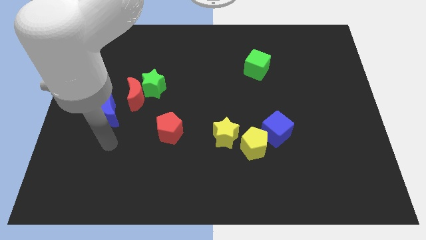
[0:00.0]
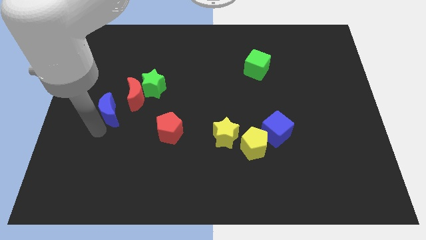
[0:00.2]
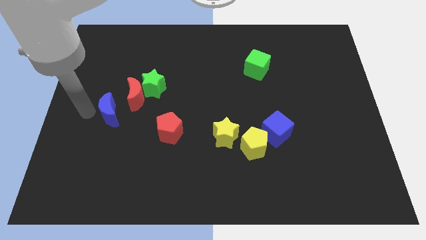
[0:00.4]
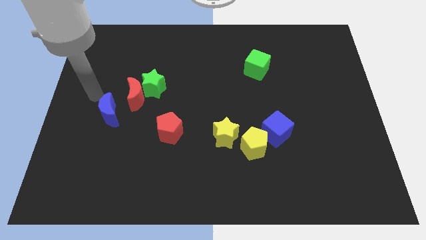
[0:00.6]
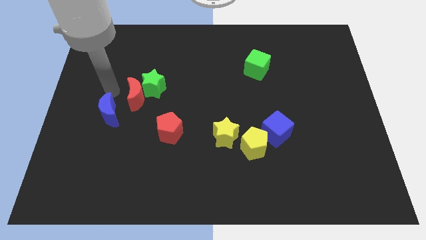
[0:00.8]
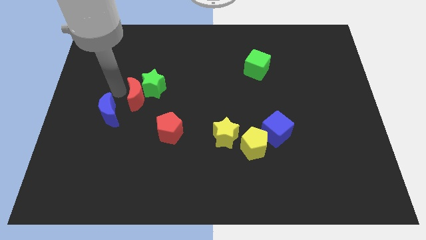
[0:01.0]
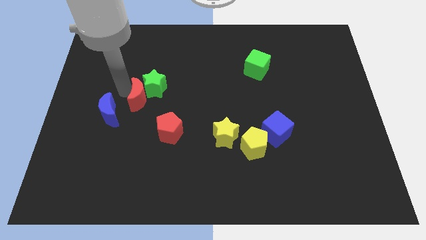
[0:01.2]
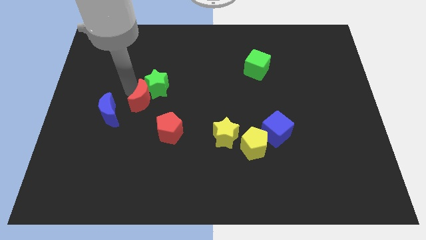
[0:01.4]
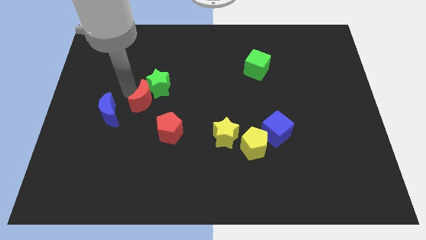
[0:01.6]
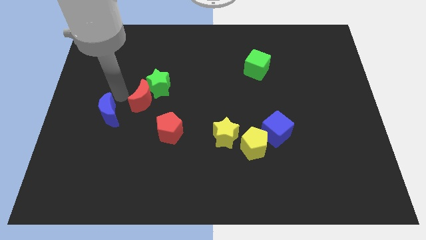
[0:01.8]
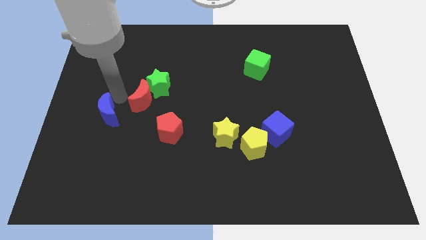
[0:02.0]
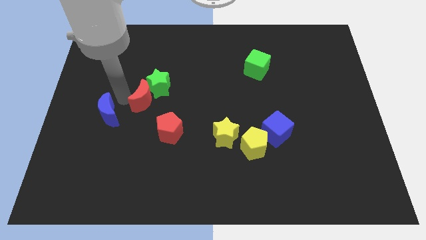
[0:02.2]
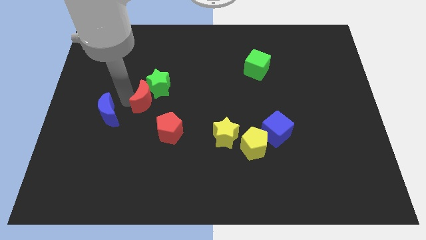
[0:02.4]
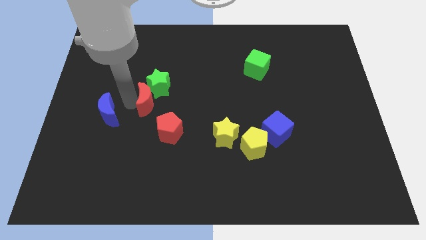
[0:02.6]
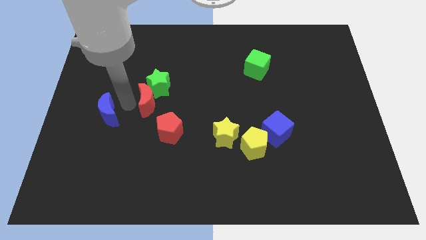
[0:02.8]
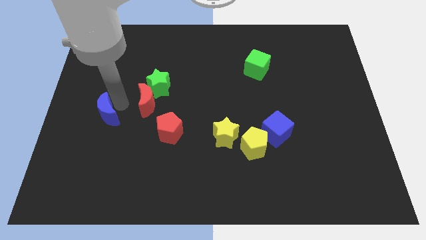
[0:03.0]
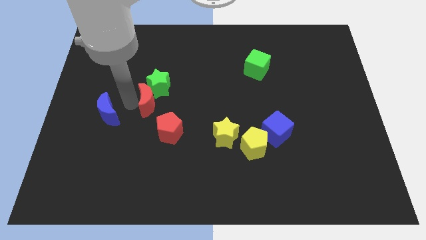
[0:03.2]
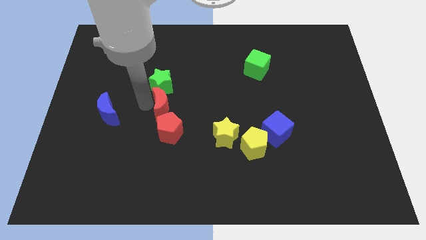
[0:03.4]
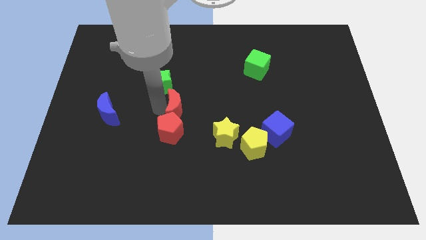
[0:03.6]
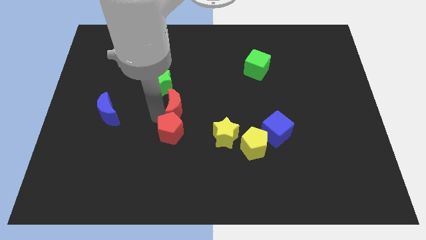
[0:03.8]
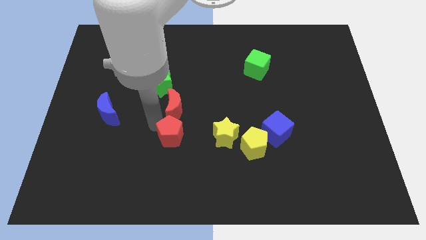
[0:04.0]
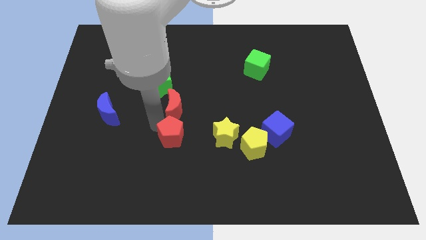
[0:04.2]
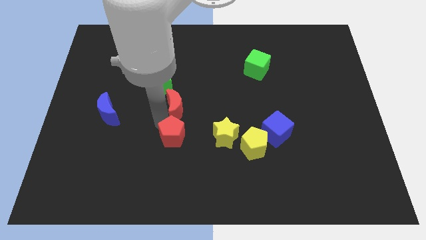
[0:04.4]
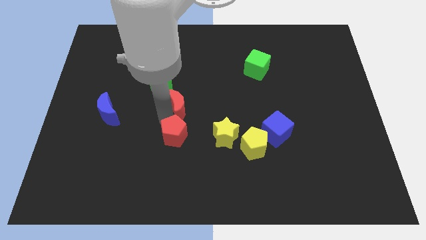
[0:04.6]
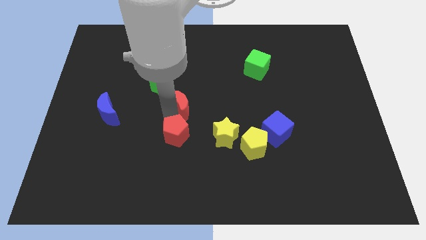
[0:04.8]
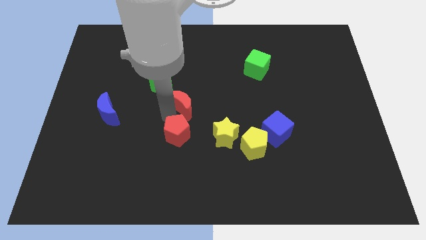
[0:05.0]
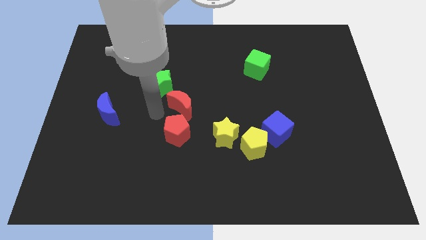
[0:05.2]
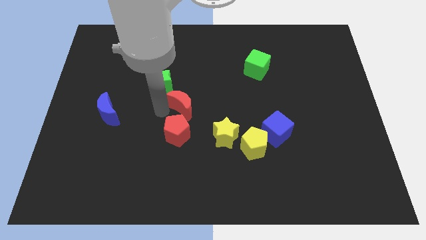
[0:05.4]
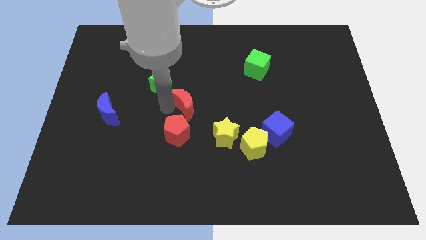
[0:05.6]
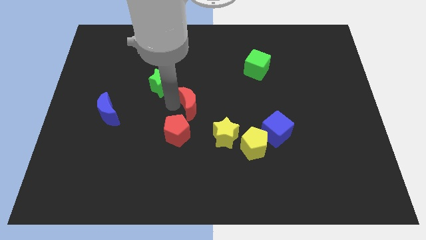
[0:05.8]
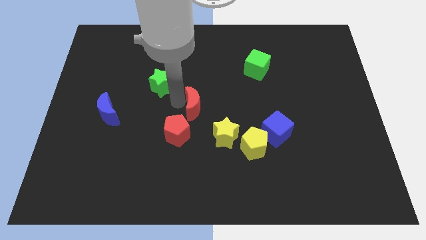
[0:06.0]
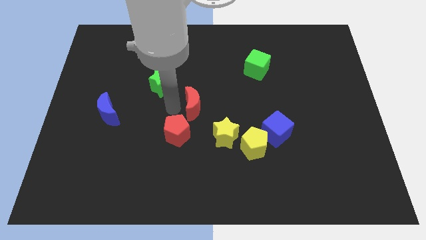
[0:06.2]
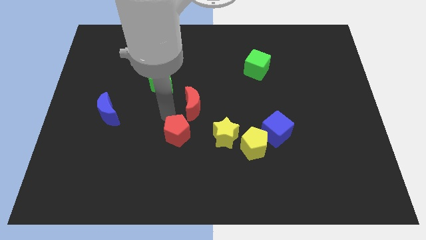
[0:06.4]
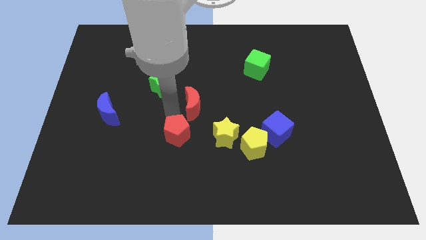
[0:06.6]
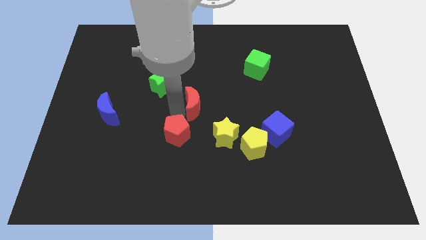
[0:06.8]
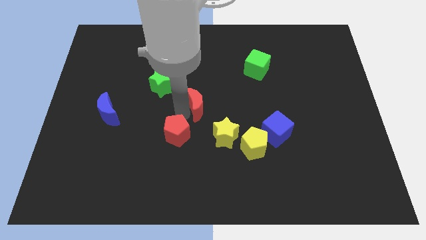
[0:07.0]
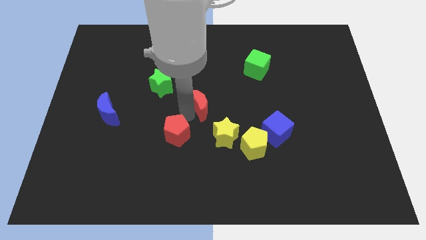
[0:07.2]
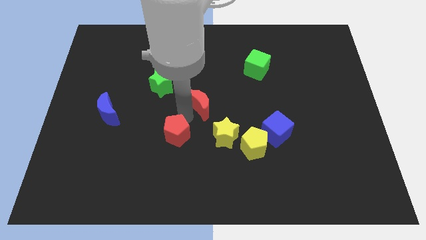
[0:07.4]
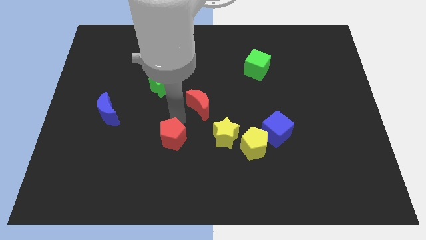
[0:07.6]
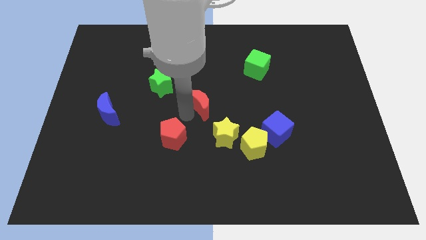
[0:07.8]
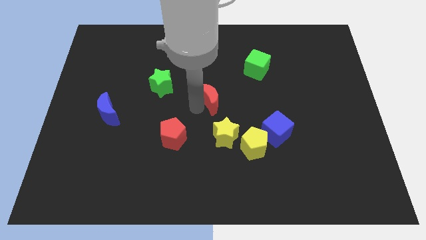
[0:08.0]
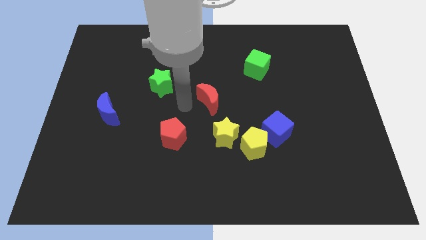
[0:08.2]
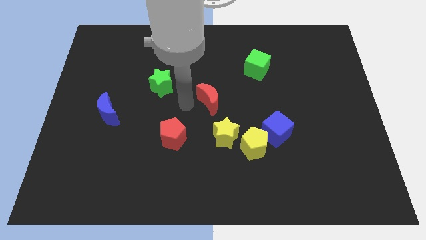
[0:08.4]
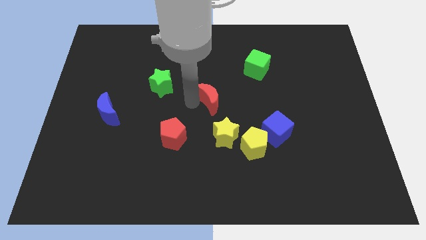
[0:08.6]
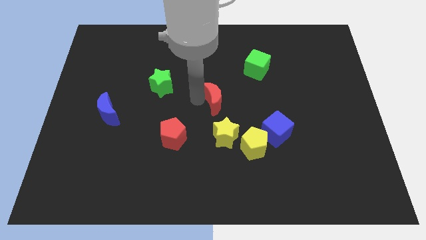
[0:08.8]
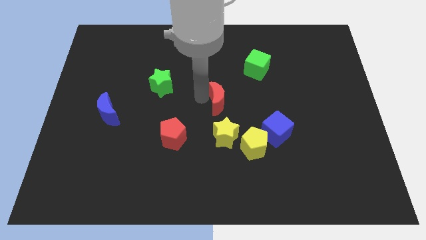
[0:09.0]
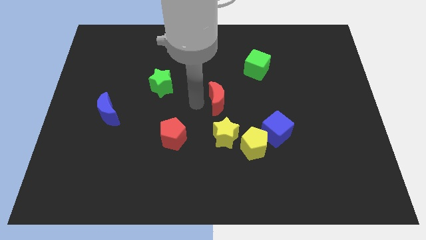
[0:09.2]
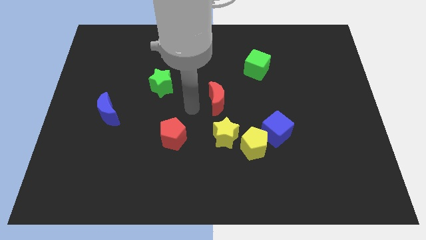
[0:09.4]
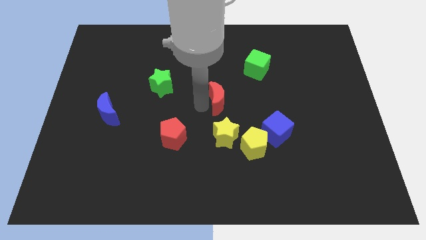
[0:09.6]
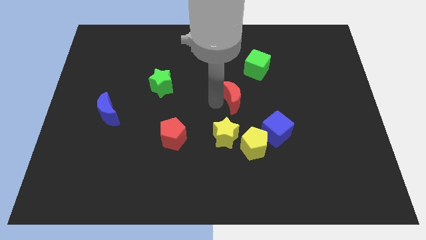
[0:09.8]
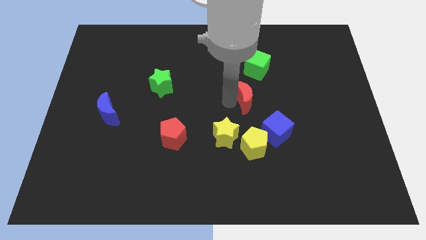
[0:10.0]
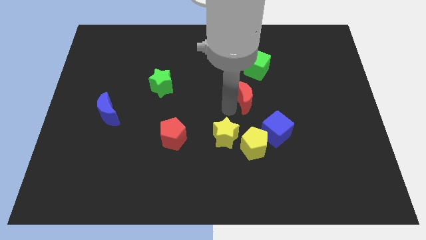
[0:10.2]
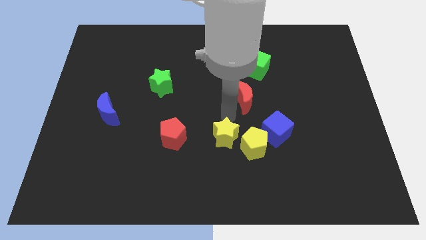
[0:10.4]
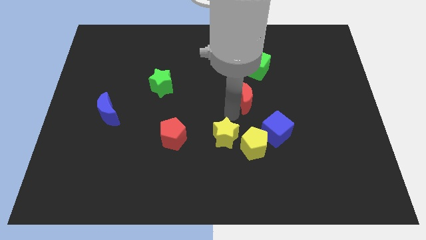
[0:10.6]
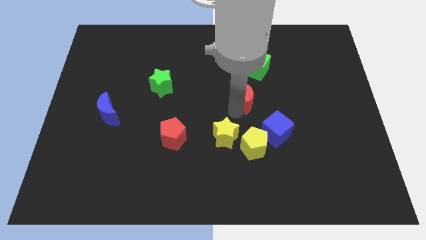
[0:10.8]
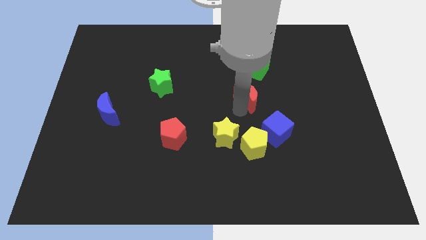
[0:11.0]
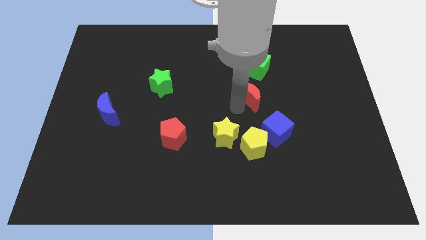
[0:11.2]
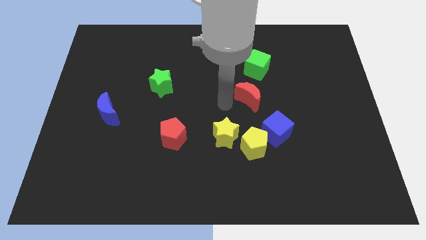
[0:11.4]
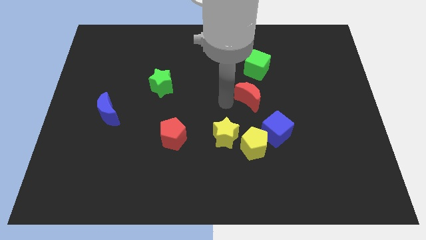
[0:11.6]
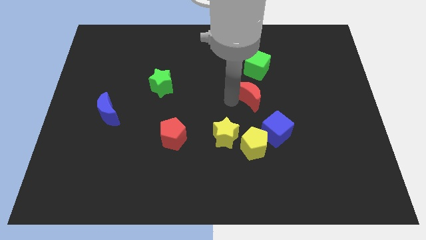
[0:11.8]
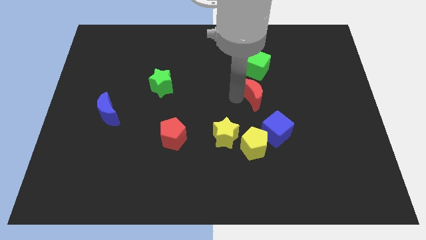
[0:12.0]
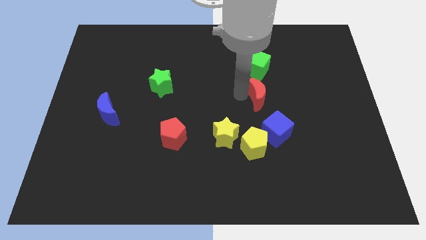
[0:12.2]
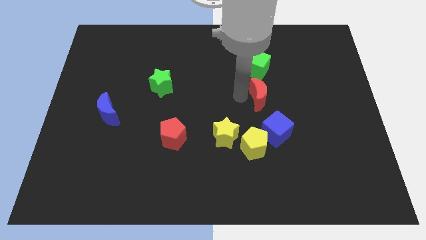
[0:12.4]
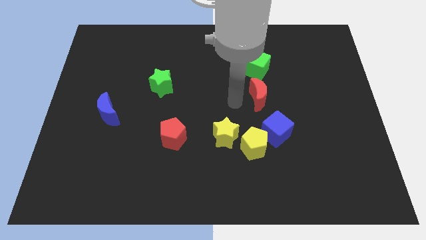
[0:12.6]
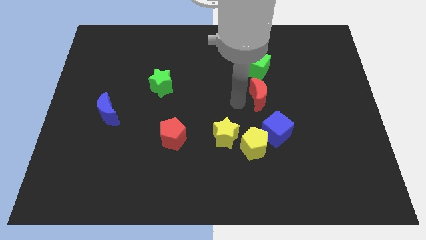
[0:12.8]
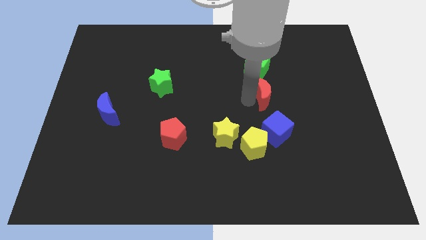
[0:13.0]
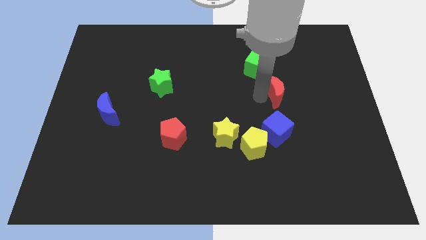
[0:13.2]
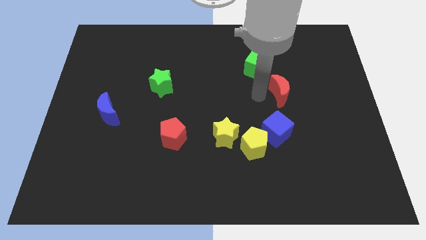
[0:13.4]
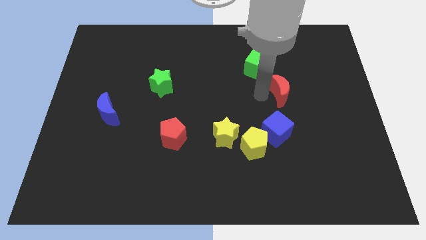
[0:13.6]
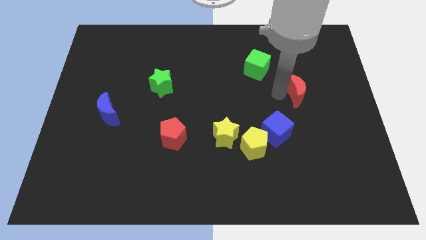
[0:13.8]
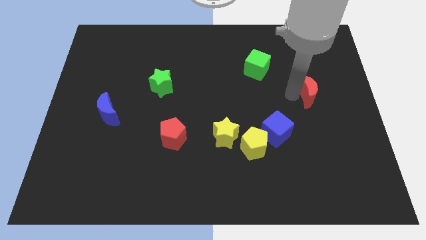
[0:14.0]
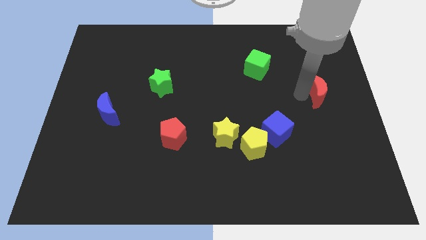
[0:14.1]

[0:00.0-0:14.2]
put the red moon to the center right

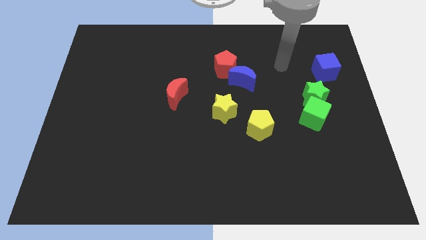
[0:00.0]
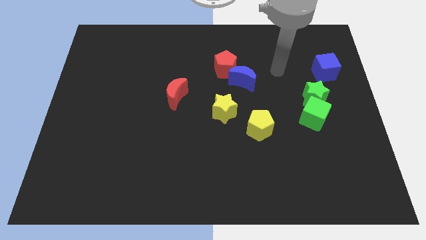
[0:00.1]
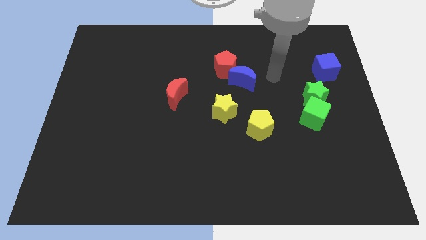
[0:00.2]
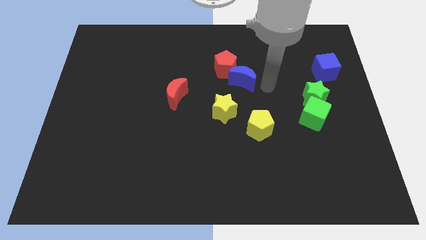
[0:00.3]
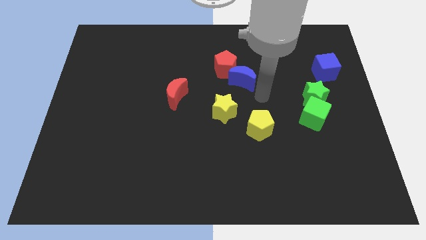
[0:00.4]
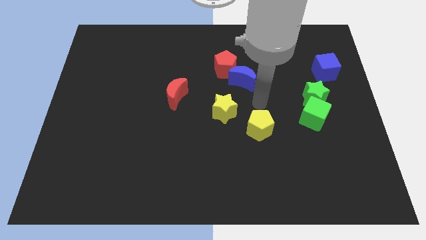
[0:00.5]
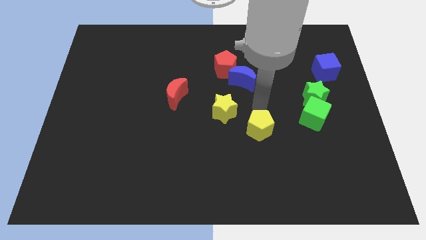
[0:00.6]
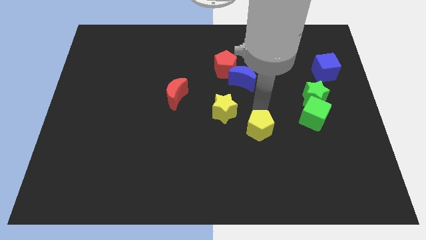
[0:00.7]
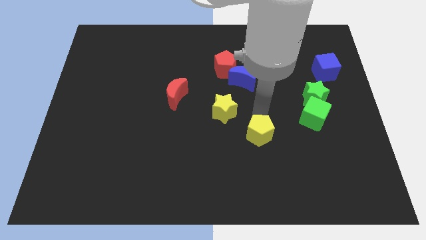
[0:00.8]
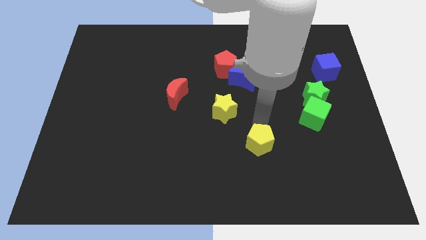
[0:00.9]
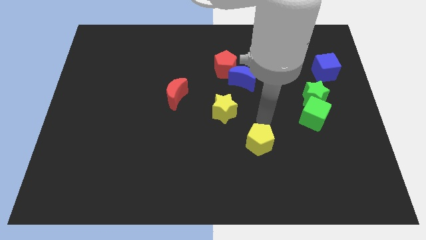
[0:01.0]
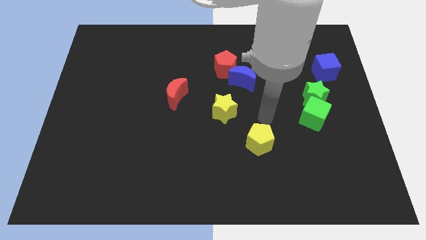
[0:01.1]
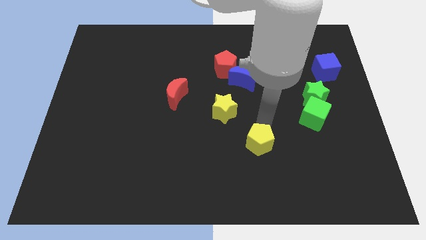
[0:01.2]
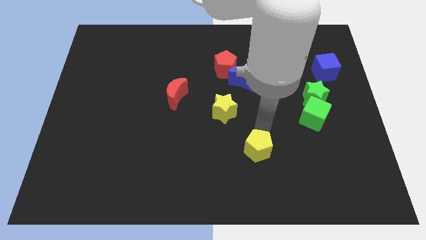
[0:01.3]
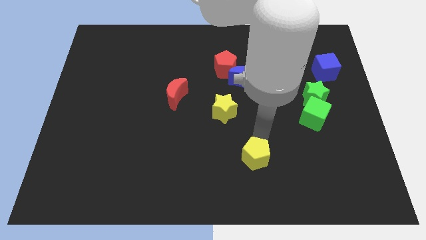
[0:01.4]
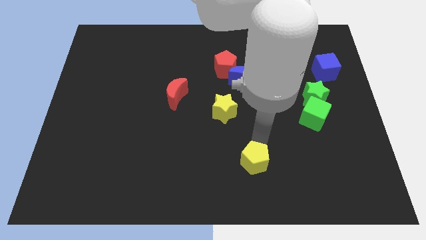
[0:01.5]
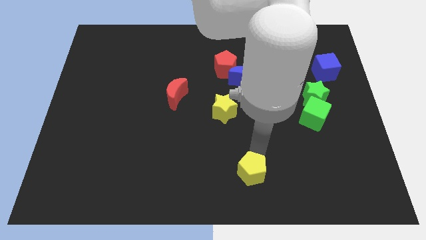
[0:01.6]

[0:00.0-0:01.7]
move the yellow pentagon to the bottom side
